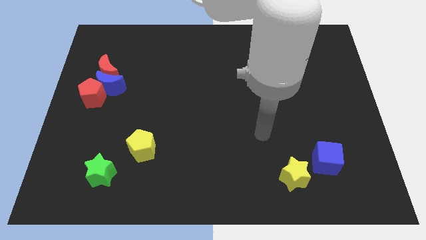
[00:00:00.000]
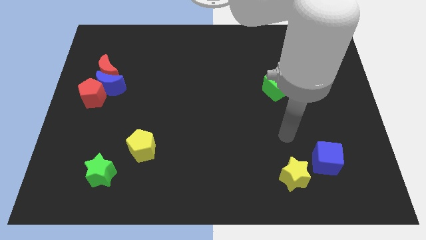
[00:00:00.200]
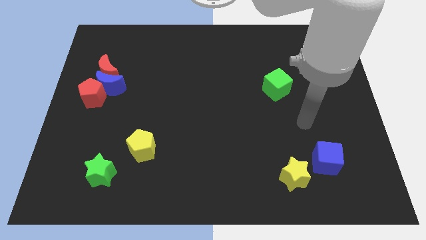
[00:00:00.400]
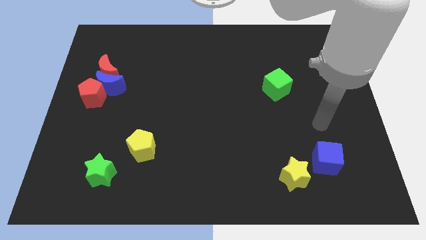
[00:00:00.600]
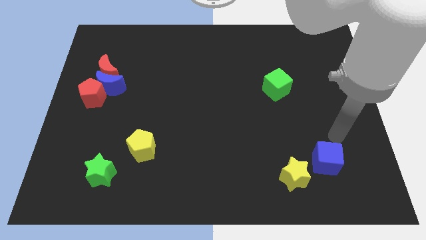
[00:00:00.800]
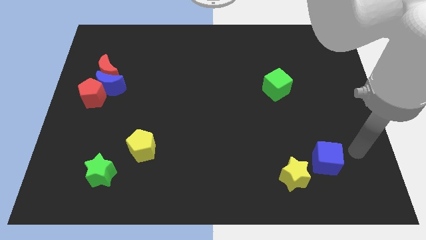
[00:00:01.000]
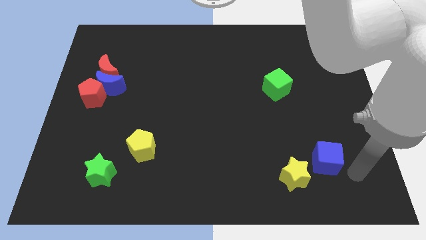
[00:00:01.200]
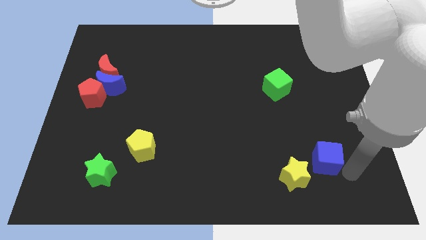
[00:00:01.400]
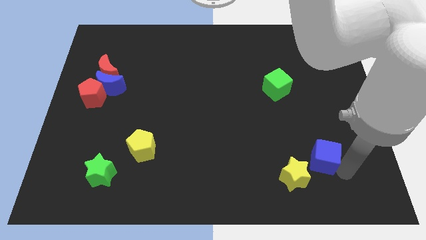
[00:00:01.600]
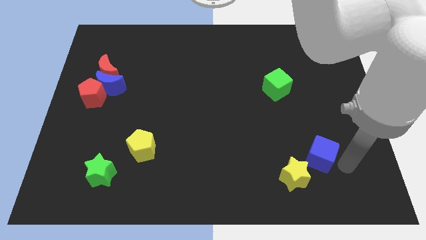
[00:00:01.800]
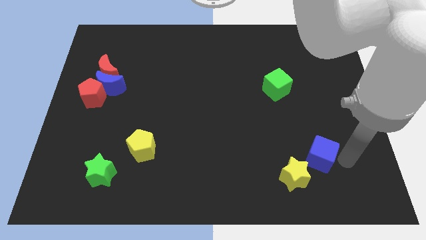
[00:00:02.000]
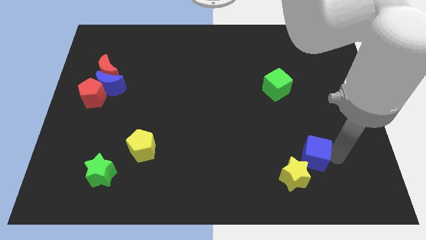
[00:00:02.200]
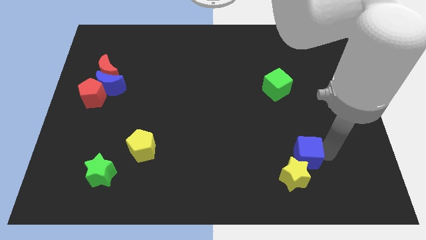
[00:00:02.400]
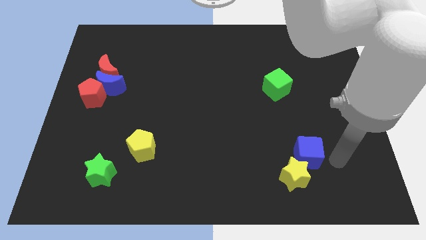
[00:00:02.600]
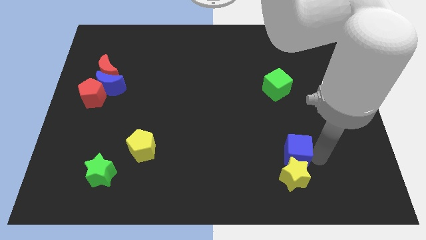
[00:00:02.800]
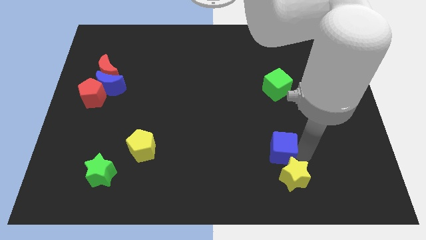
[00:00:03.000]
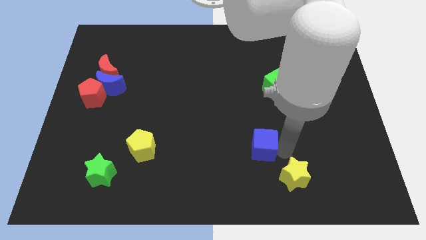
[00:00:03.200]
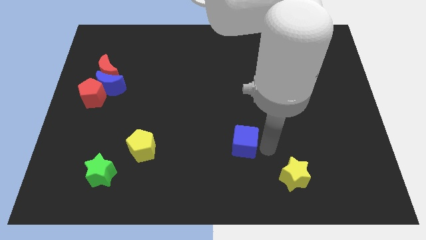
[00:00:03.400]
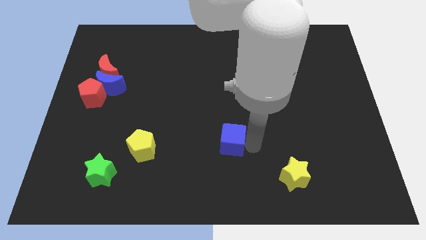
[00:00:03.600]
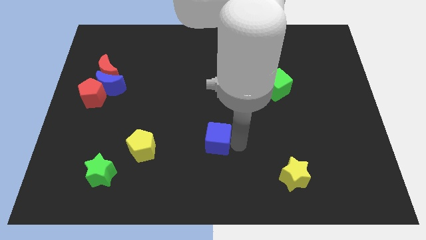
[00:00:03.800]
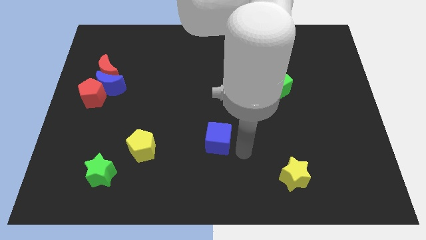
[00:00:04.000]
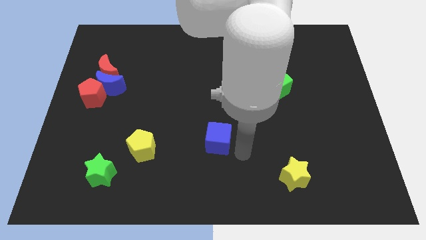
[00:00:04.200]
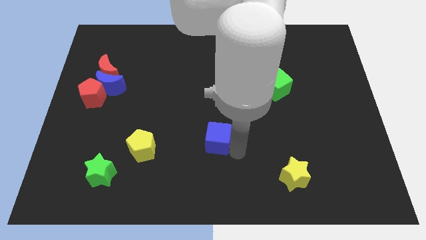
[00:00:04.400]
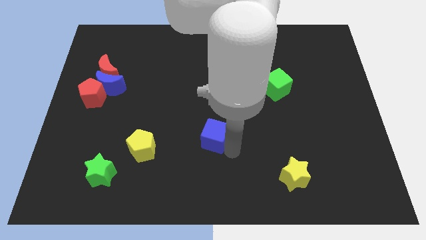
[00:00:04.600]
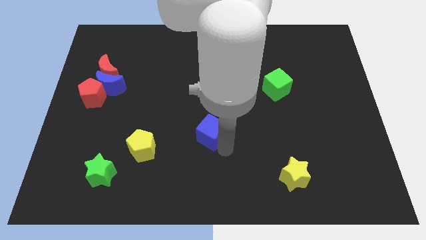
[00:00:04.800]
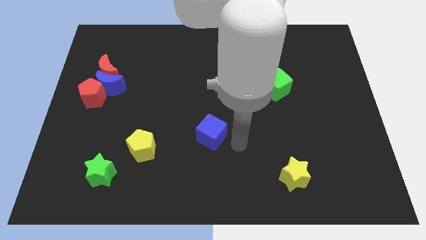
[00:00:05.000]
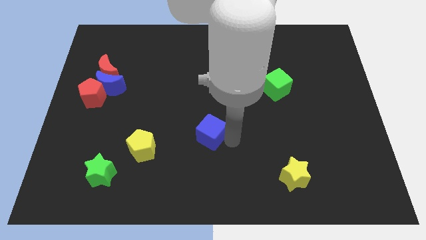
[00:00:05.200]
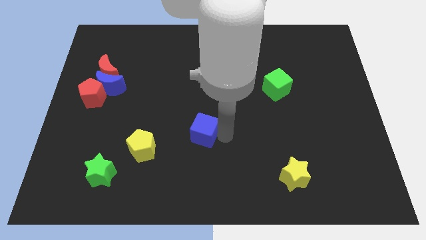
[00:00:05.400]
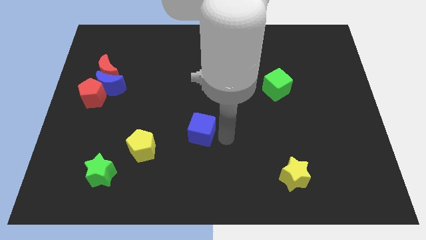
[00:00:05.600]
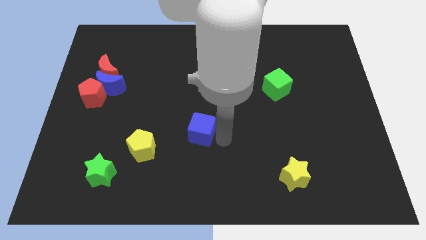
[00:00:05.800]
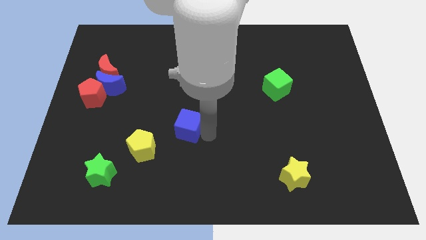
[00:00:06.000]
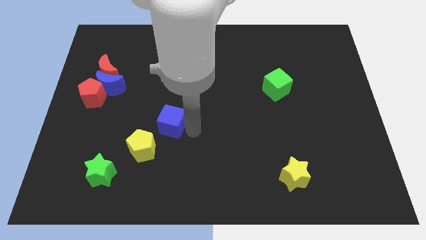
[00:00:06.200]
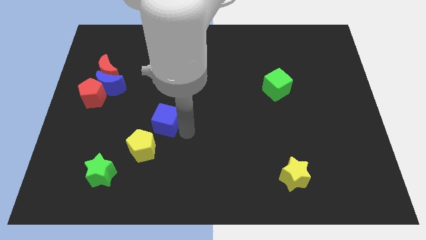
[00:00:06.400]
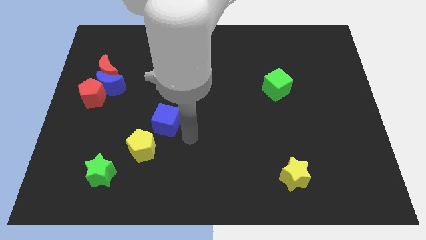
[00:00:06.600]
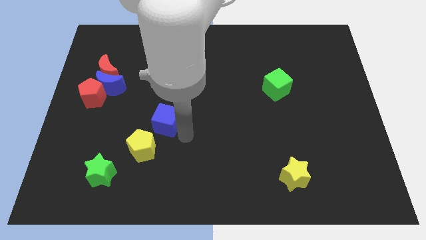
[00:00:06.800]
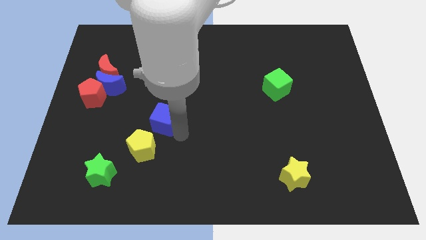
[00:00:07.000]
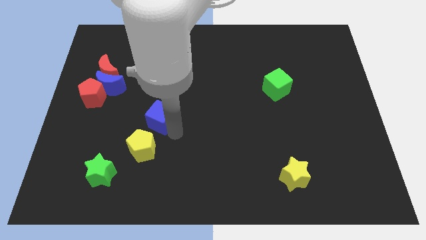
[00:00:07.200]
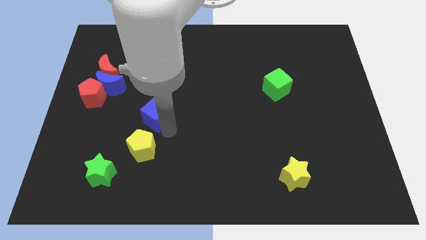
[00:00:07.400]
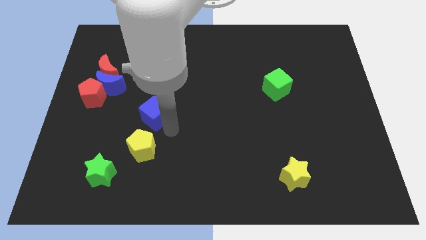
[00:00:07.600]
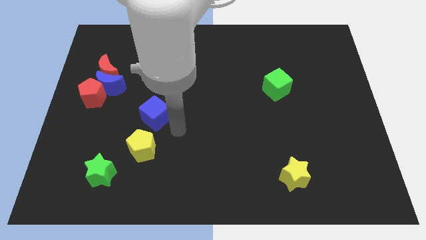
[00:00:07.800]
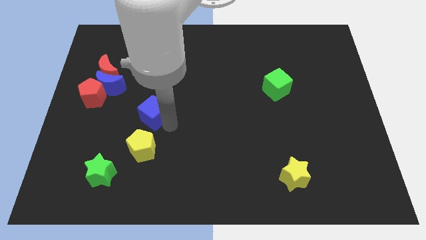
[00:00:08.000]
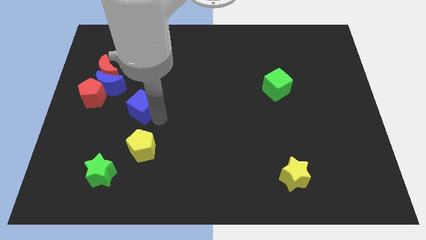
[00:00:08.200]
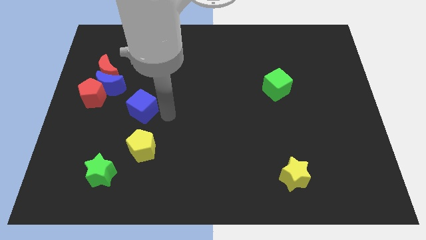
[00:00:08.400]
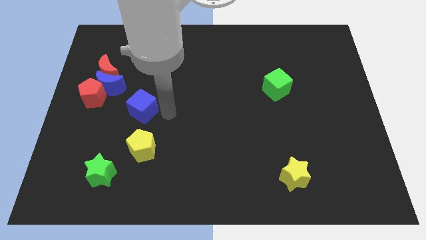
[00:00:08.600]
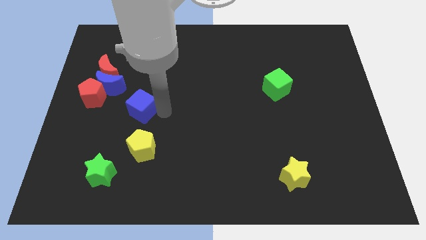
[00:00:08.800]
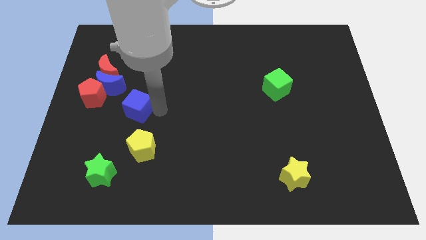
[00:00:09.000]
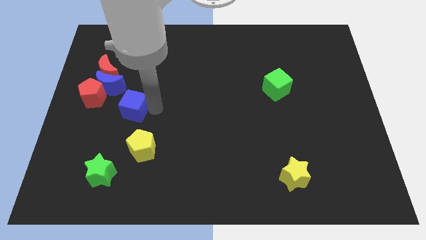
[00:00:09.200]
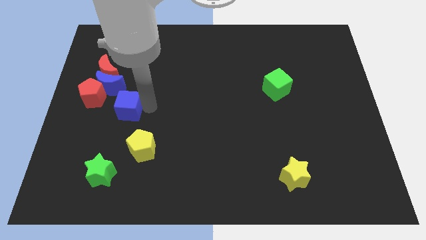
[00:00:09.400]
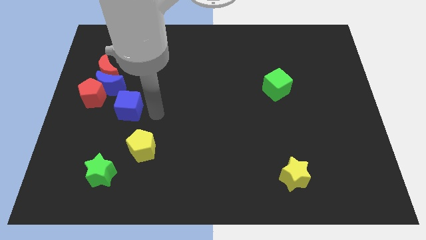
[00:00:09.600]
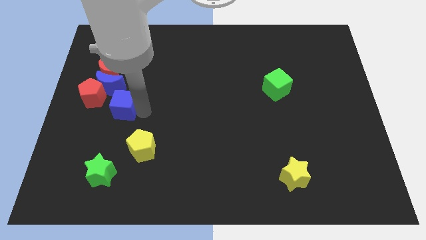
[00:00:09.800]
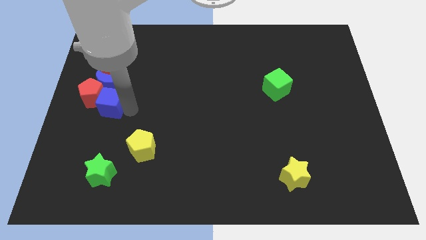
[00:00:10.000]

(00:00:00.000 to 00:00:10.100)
push the blue cube to the red pentagon

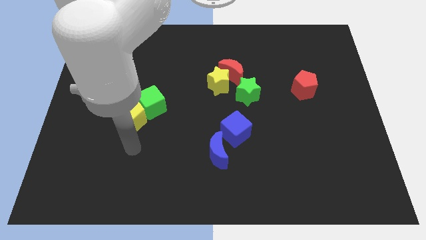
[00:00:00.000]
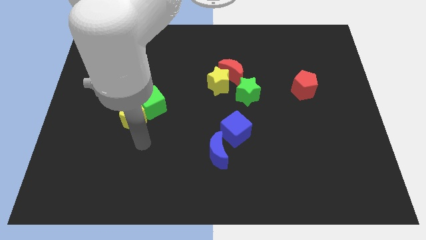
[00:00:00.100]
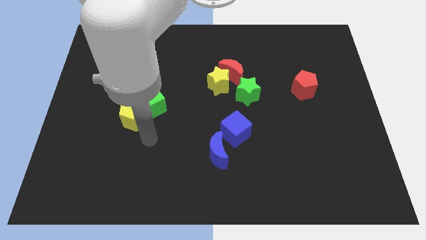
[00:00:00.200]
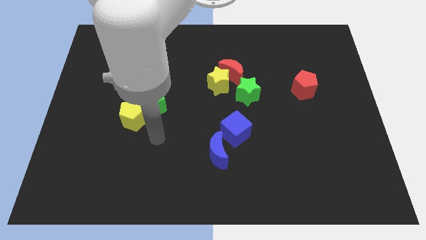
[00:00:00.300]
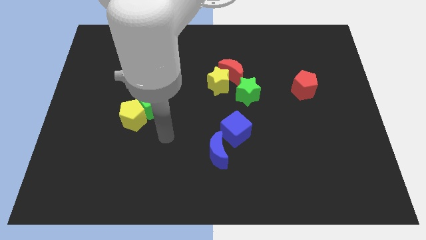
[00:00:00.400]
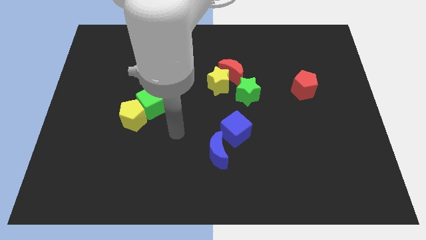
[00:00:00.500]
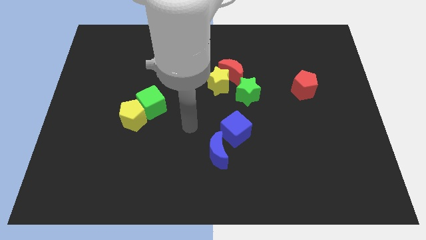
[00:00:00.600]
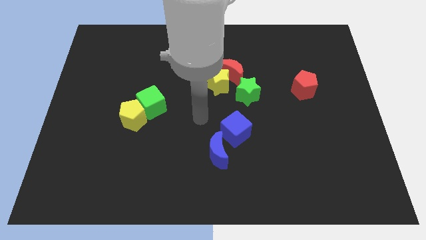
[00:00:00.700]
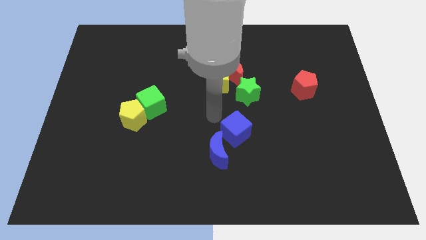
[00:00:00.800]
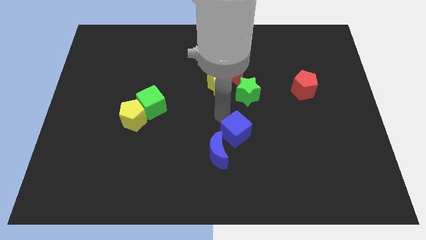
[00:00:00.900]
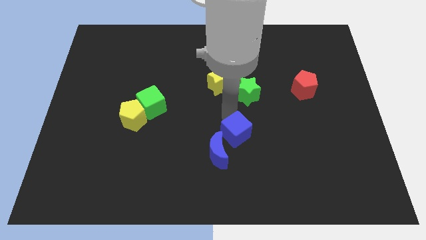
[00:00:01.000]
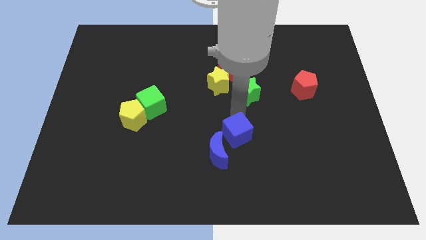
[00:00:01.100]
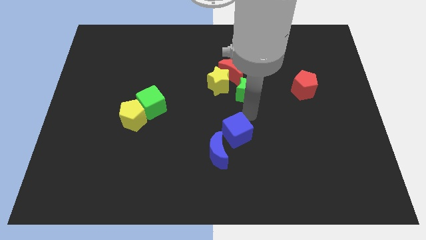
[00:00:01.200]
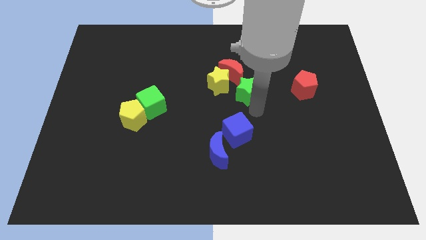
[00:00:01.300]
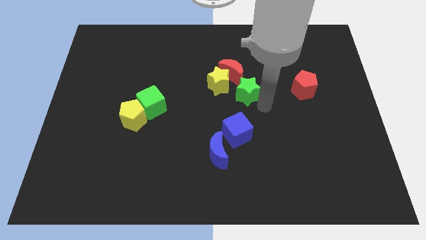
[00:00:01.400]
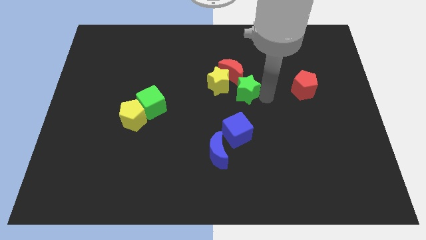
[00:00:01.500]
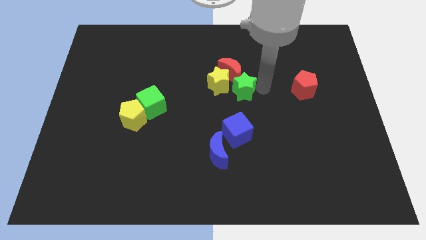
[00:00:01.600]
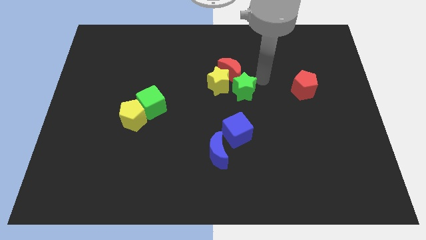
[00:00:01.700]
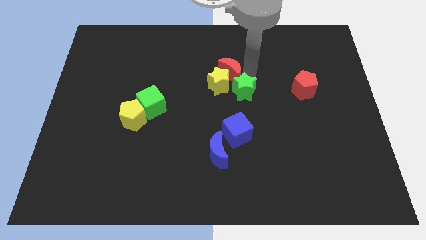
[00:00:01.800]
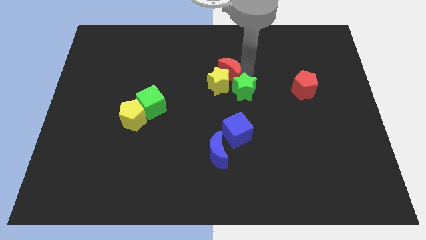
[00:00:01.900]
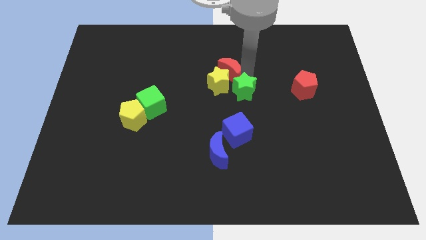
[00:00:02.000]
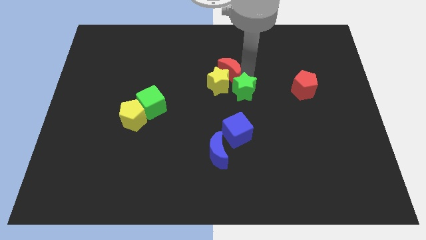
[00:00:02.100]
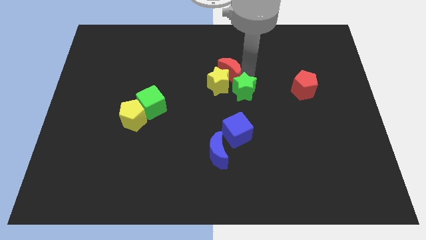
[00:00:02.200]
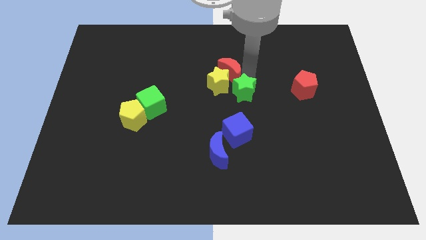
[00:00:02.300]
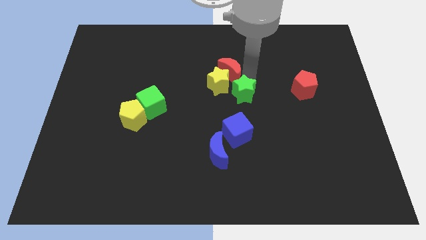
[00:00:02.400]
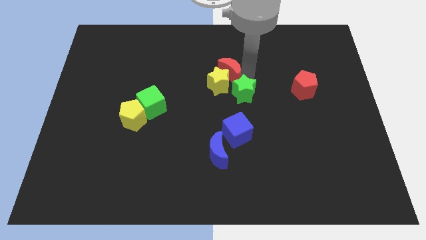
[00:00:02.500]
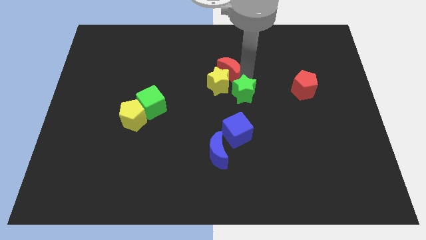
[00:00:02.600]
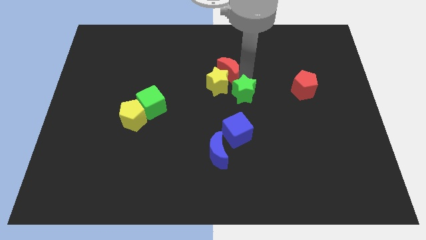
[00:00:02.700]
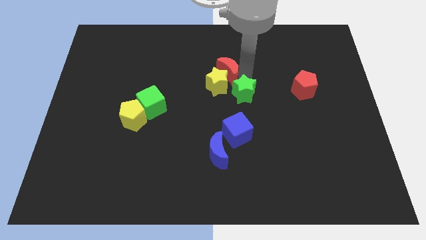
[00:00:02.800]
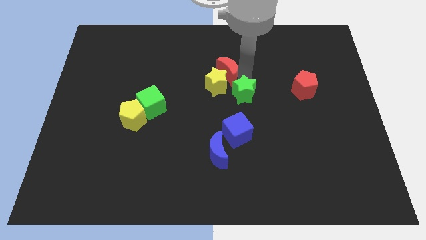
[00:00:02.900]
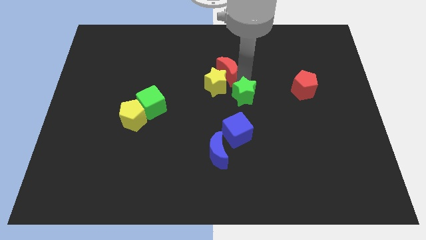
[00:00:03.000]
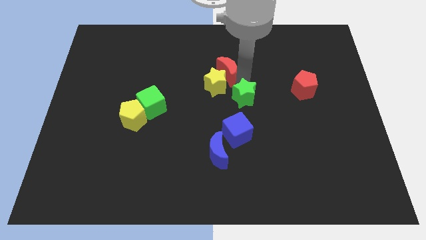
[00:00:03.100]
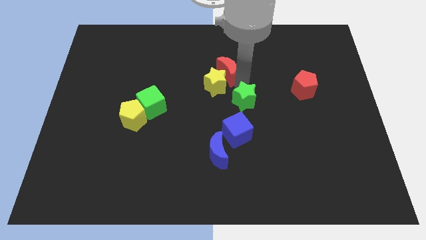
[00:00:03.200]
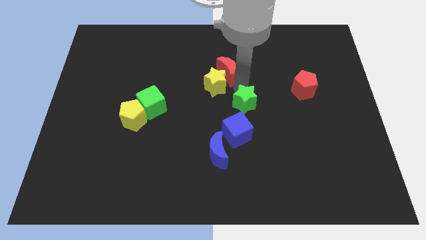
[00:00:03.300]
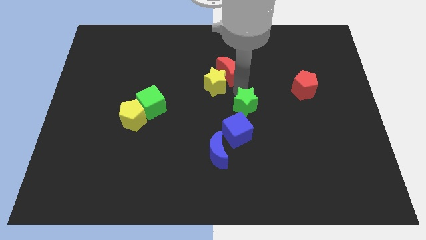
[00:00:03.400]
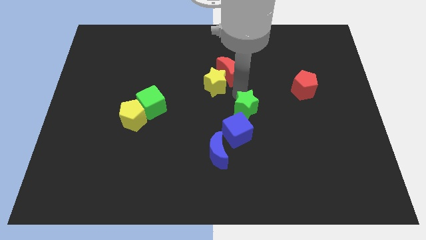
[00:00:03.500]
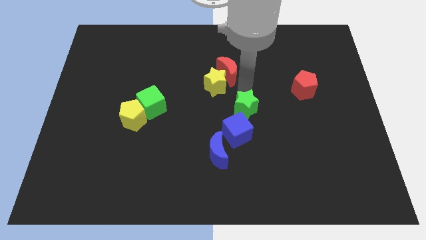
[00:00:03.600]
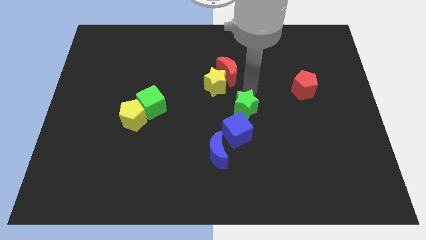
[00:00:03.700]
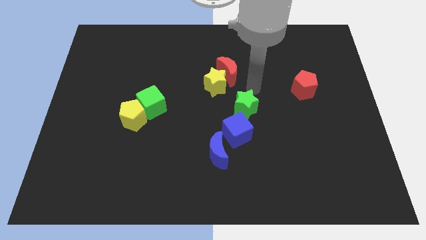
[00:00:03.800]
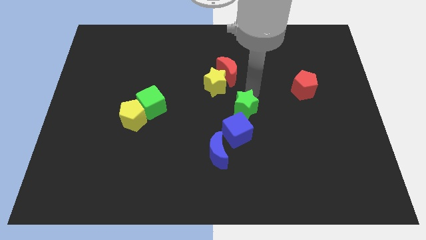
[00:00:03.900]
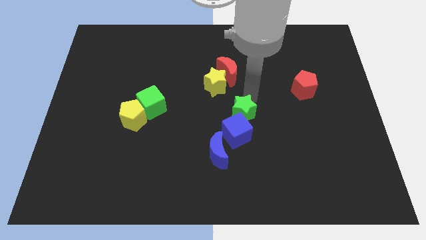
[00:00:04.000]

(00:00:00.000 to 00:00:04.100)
move the green star next to the blue cube
